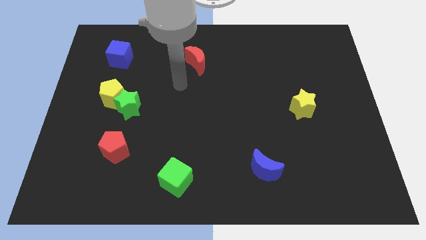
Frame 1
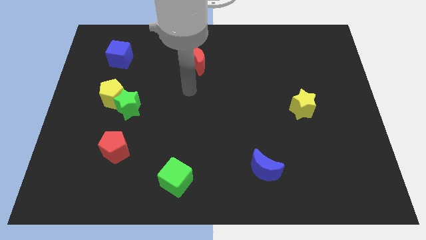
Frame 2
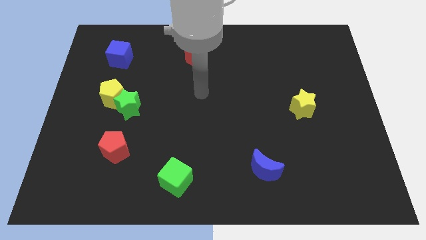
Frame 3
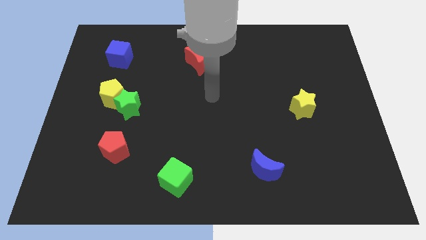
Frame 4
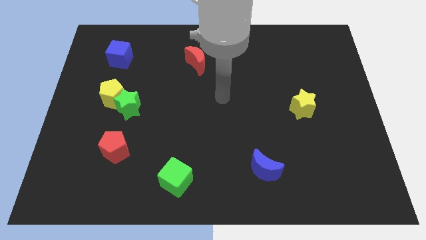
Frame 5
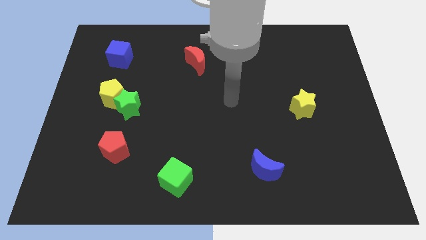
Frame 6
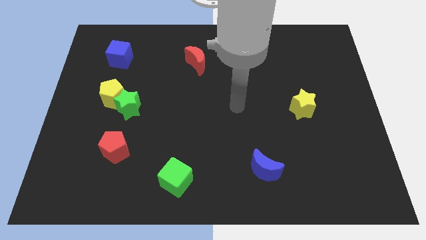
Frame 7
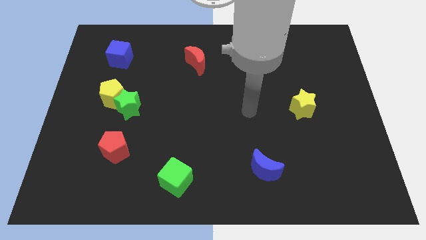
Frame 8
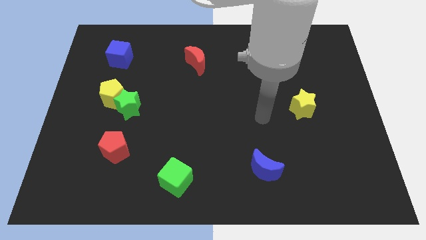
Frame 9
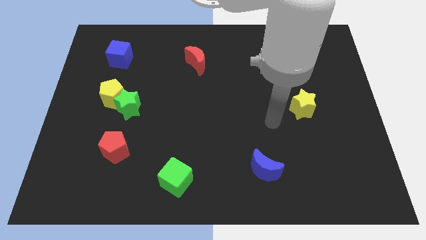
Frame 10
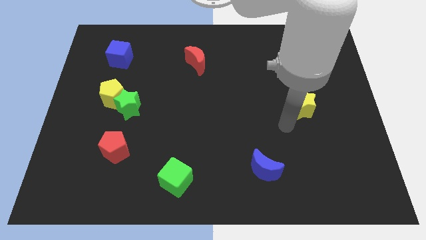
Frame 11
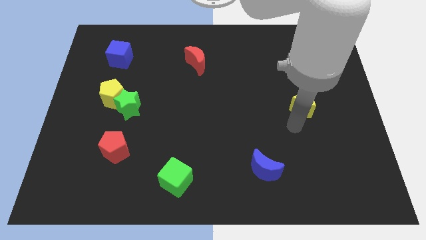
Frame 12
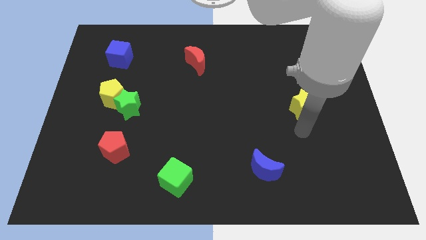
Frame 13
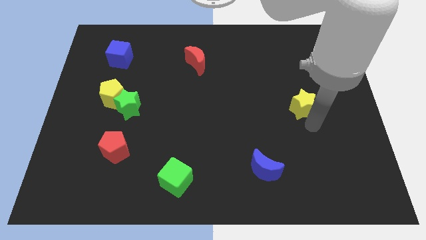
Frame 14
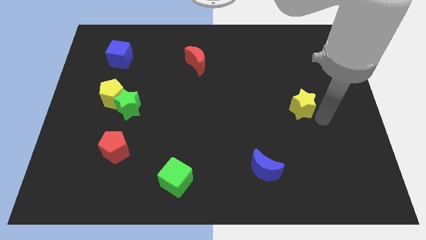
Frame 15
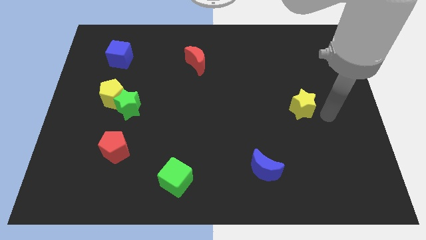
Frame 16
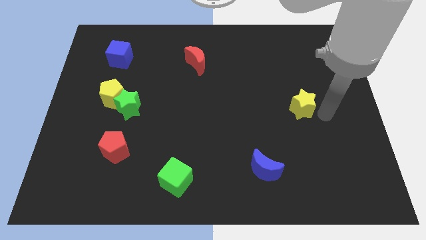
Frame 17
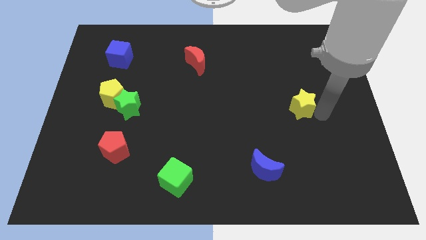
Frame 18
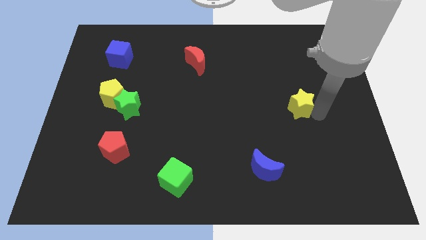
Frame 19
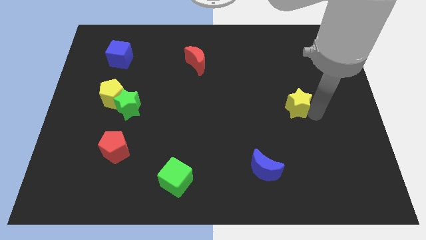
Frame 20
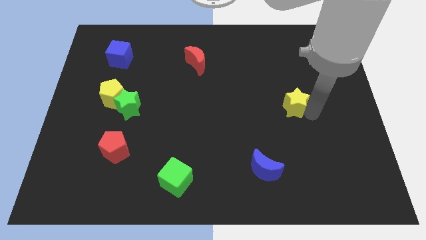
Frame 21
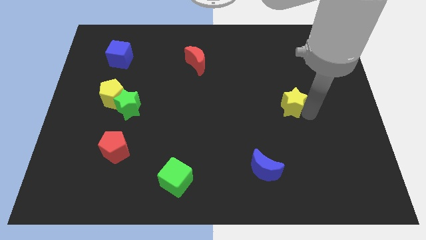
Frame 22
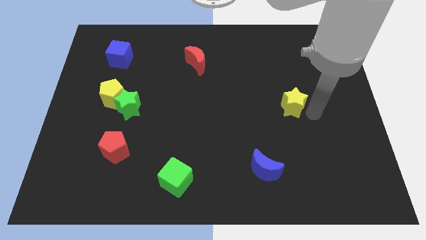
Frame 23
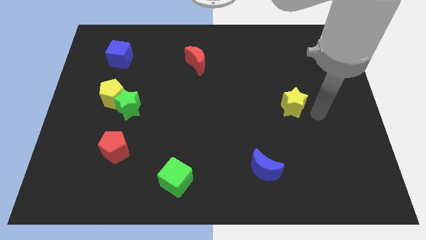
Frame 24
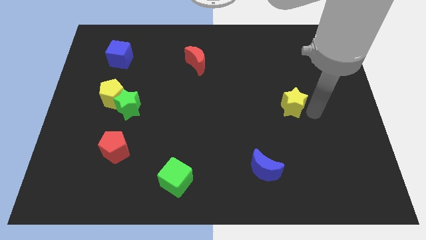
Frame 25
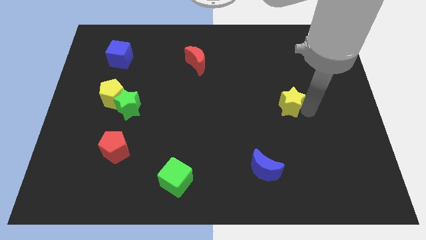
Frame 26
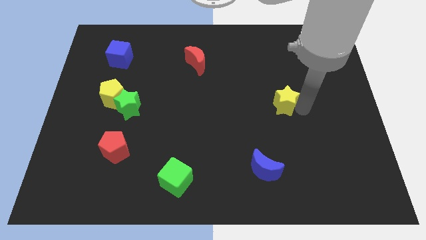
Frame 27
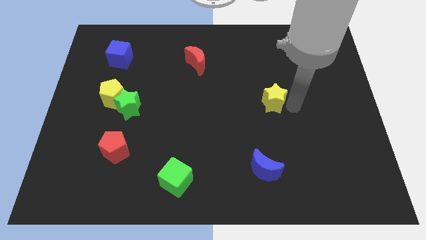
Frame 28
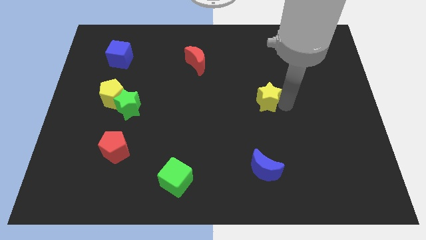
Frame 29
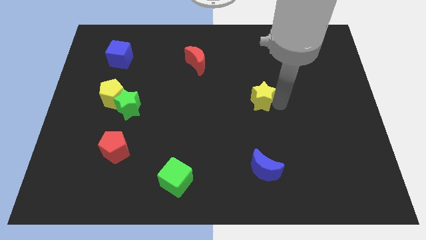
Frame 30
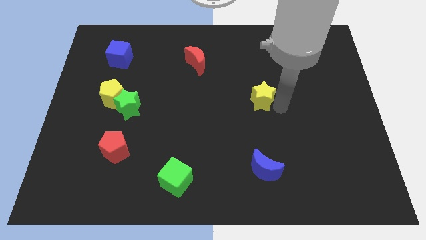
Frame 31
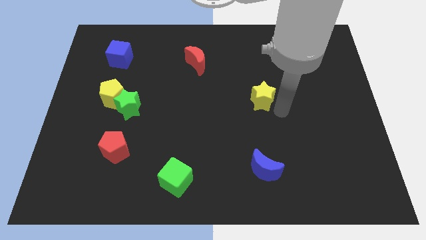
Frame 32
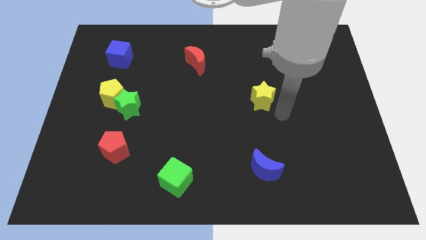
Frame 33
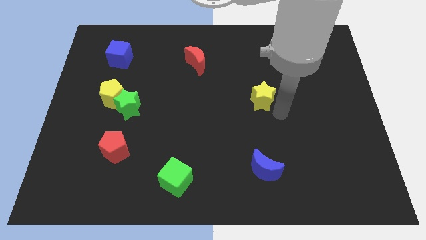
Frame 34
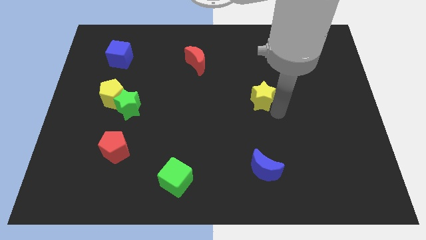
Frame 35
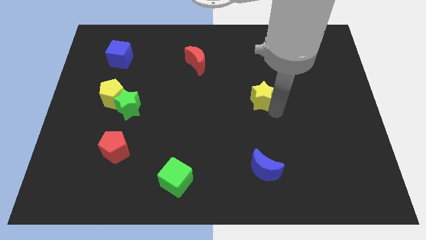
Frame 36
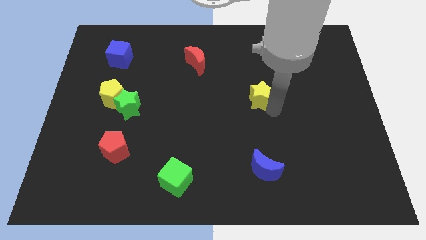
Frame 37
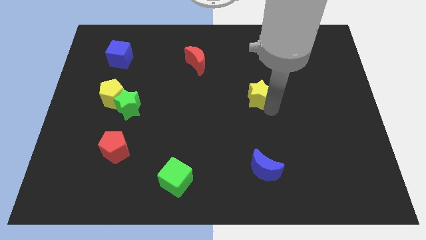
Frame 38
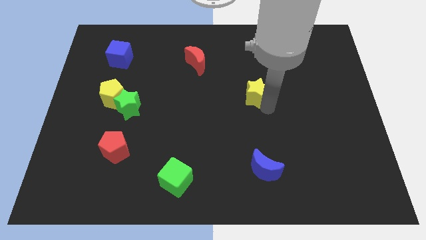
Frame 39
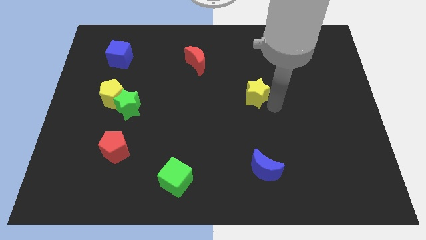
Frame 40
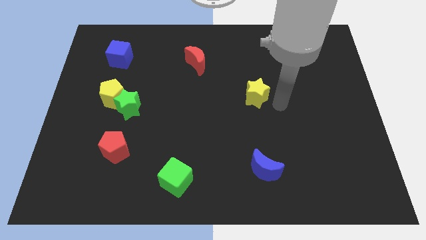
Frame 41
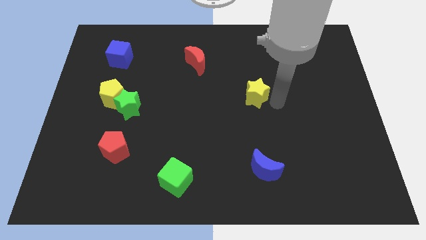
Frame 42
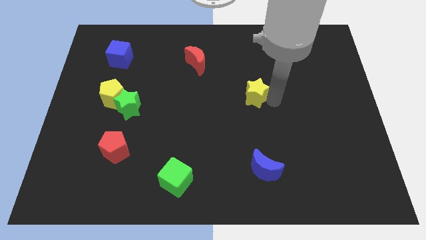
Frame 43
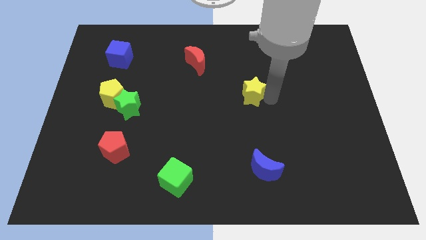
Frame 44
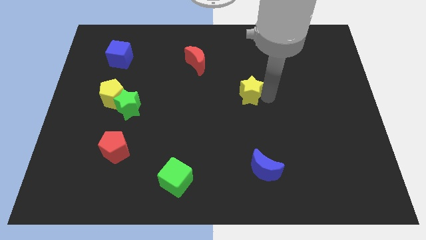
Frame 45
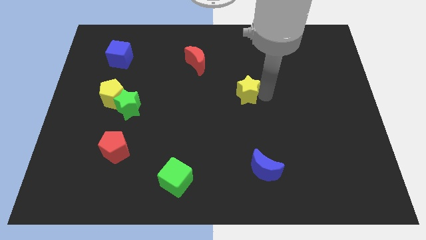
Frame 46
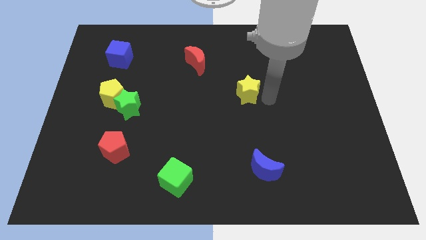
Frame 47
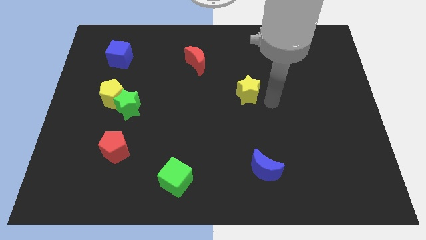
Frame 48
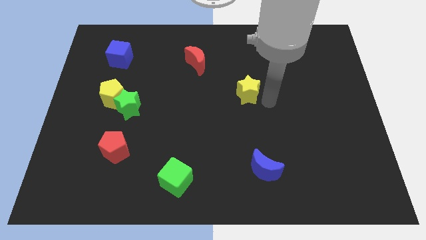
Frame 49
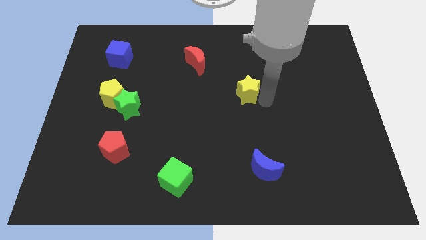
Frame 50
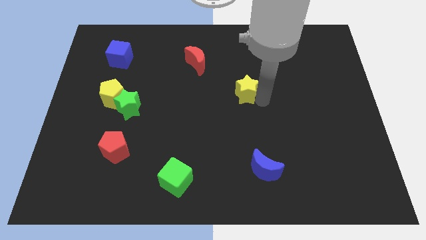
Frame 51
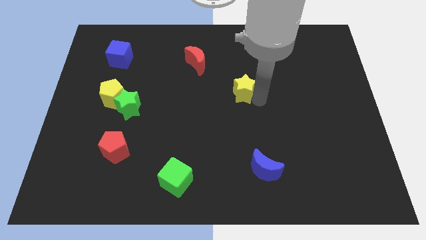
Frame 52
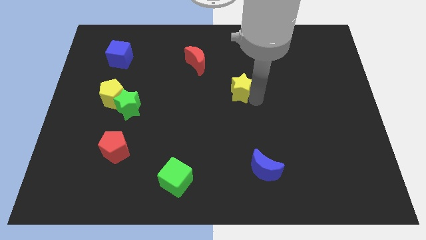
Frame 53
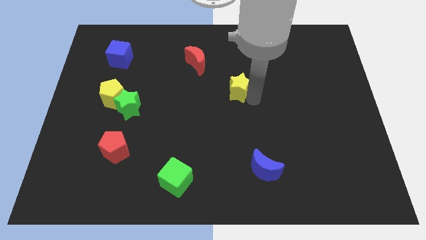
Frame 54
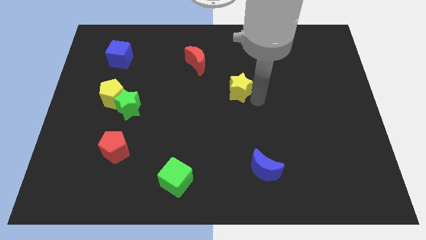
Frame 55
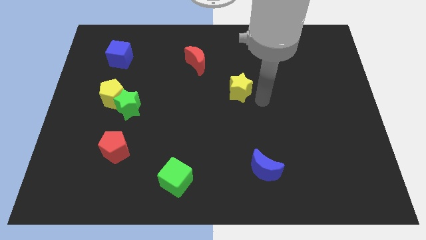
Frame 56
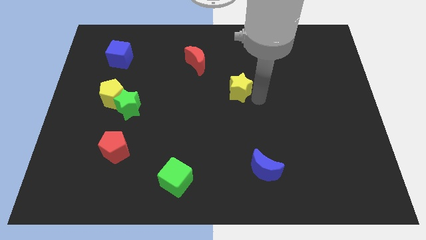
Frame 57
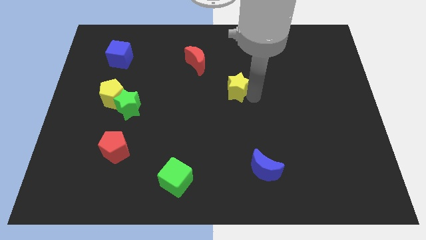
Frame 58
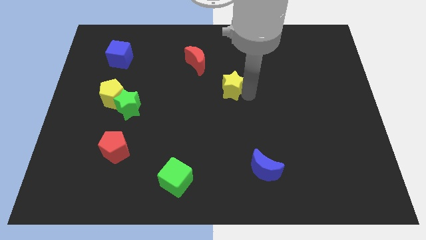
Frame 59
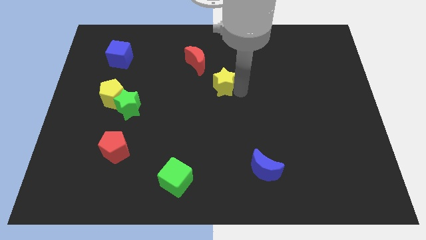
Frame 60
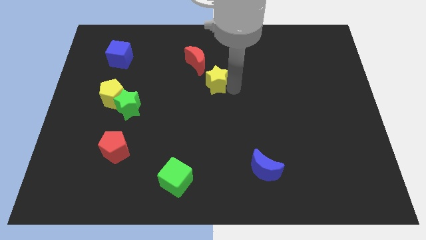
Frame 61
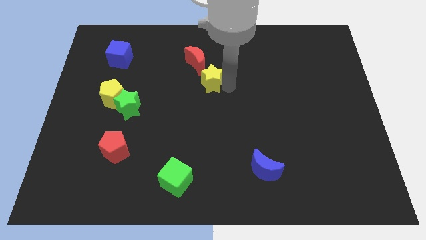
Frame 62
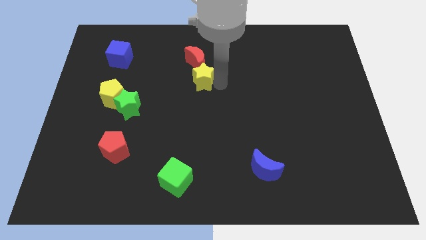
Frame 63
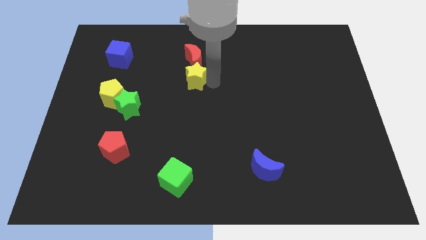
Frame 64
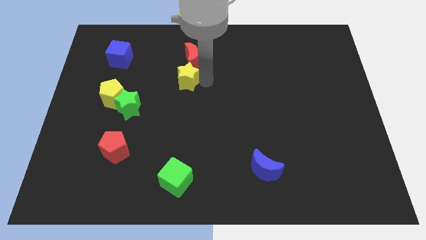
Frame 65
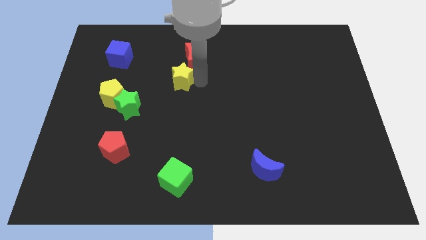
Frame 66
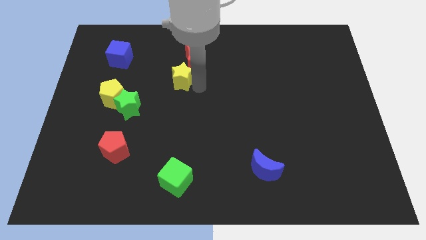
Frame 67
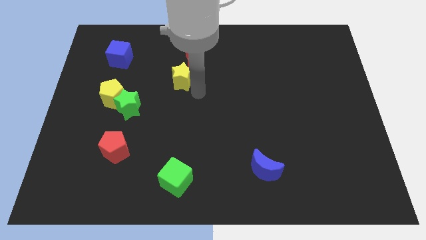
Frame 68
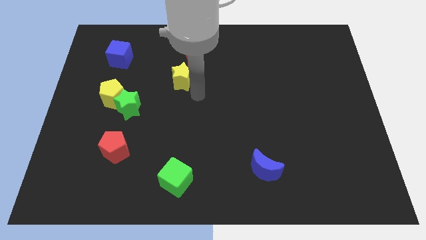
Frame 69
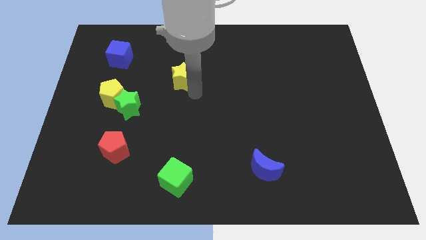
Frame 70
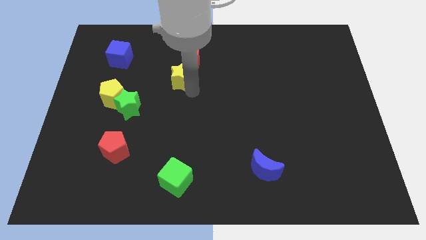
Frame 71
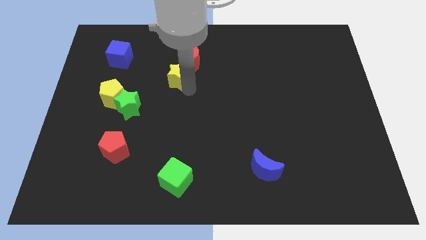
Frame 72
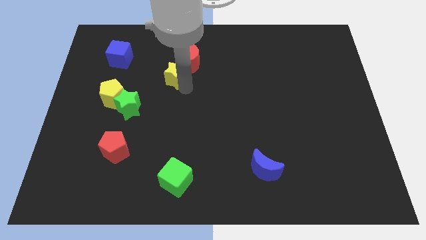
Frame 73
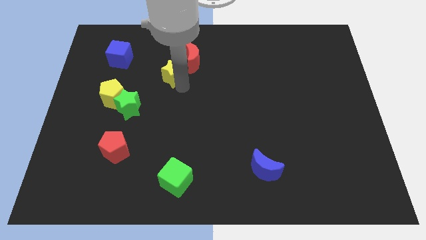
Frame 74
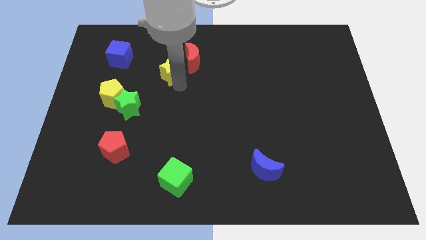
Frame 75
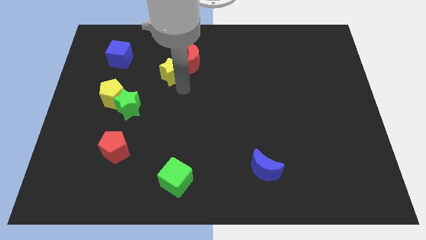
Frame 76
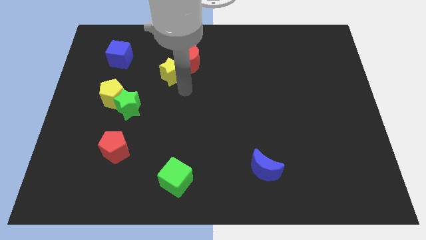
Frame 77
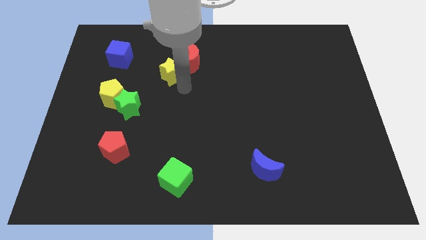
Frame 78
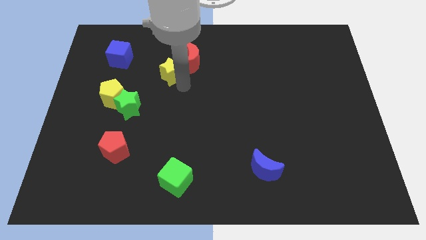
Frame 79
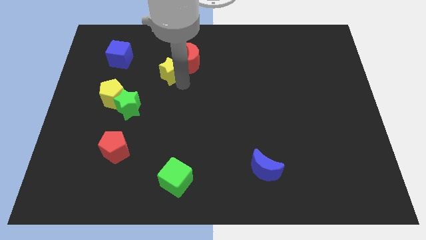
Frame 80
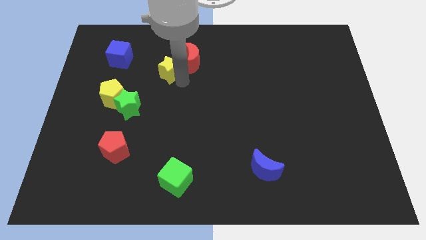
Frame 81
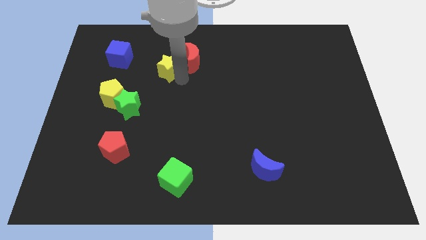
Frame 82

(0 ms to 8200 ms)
move the yellow star just right of the blue cube

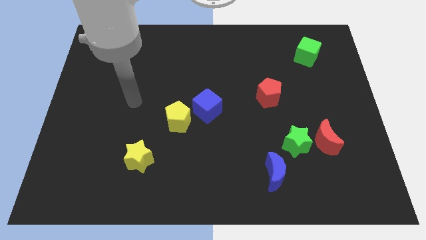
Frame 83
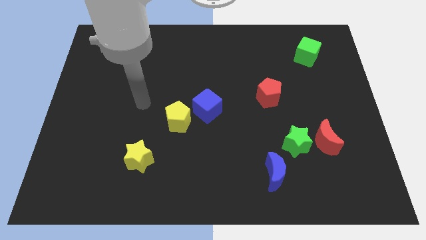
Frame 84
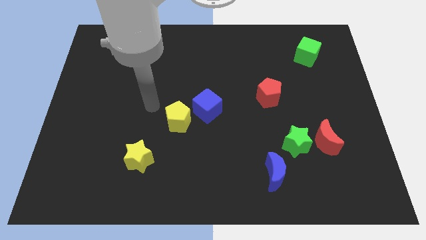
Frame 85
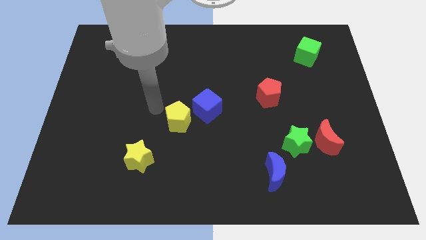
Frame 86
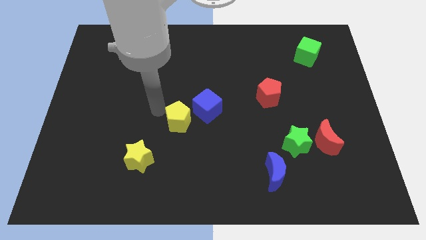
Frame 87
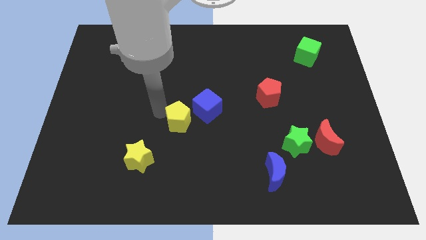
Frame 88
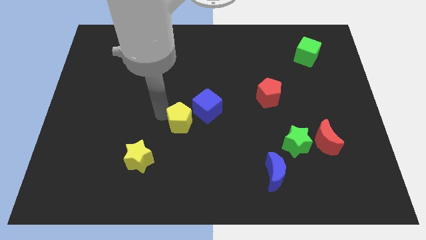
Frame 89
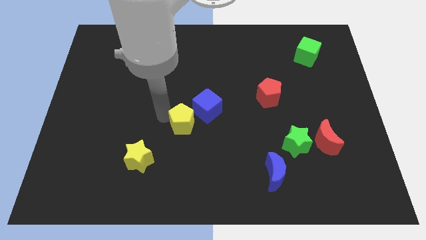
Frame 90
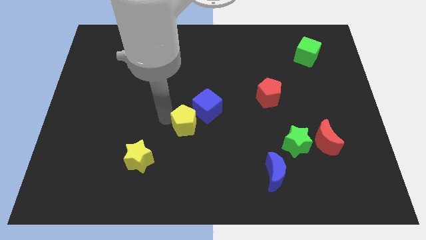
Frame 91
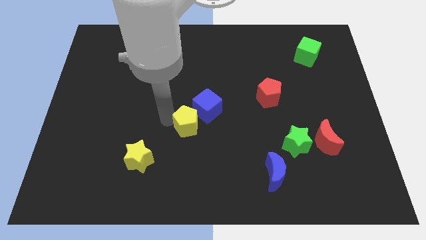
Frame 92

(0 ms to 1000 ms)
put the yellow pentagon below the blue cube
